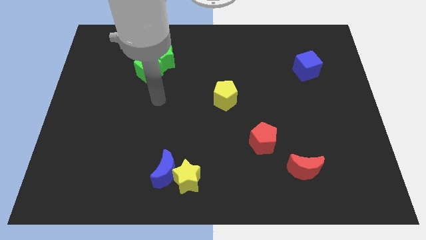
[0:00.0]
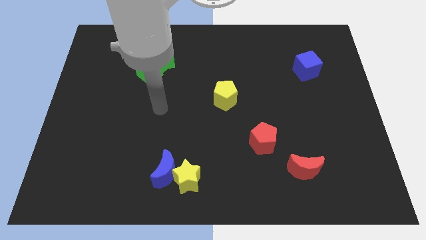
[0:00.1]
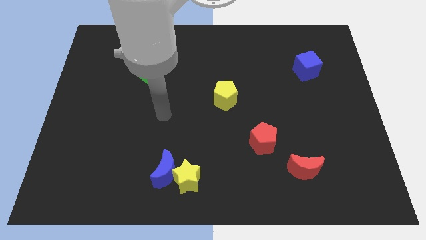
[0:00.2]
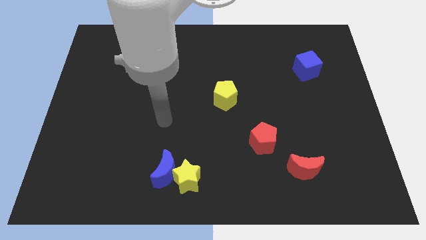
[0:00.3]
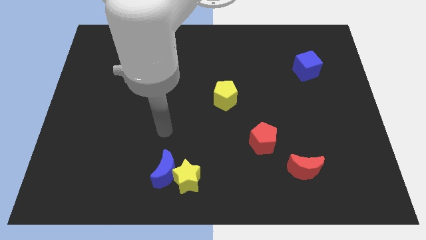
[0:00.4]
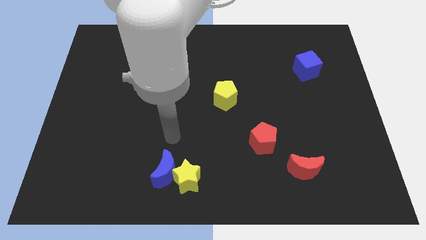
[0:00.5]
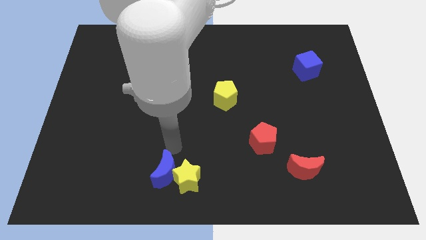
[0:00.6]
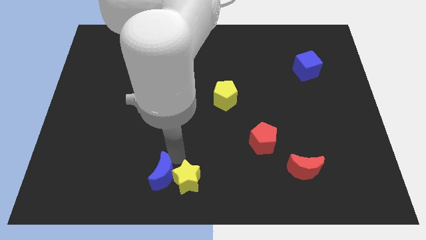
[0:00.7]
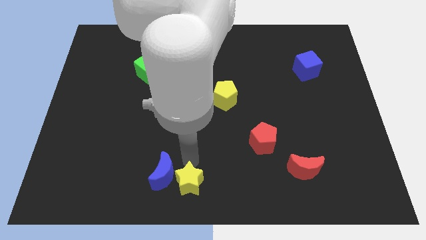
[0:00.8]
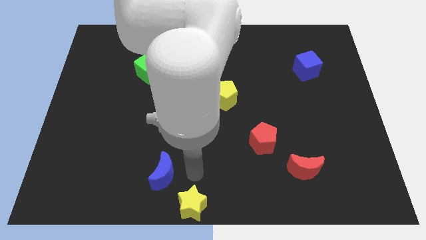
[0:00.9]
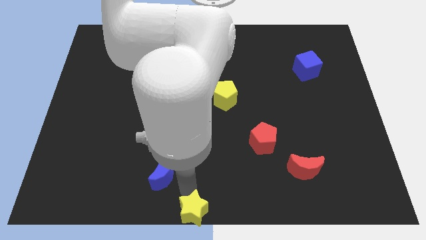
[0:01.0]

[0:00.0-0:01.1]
pull the blue moon apart from the yellow star

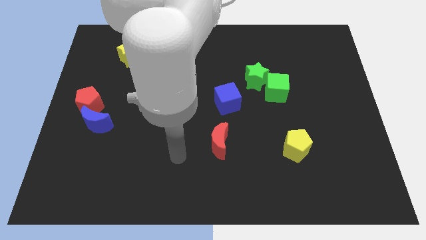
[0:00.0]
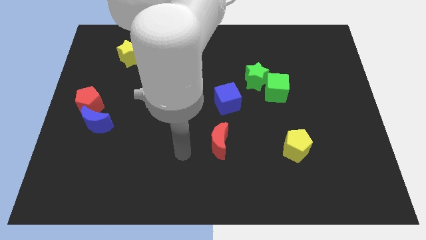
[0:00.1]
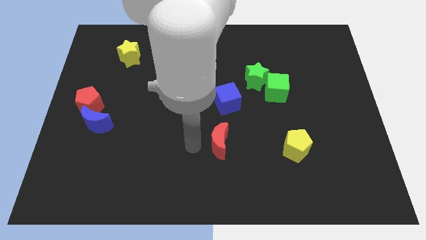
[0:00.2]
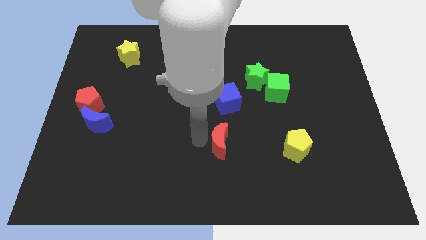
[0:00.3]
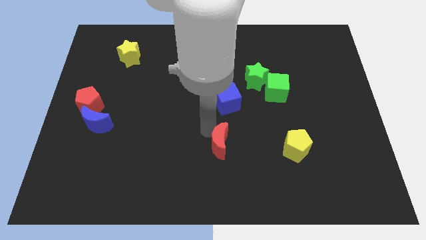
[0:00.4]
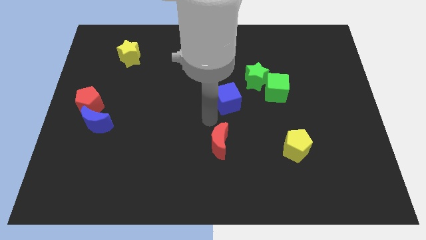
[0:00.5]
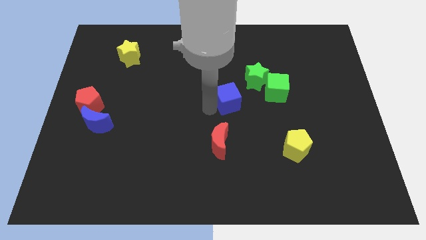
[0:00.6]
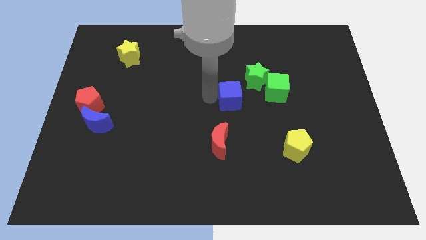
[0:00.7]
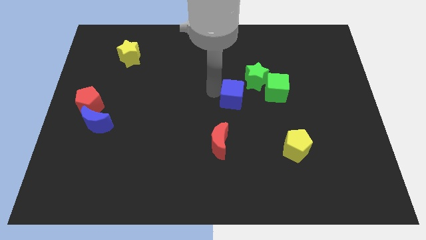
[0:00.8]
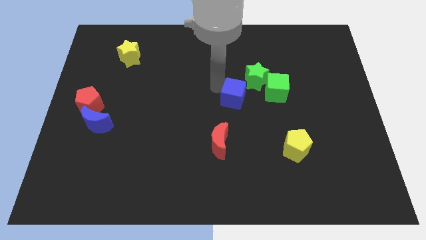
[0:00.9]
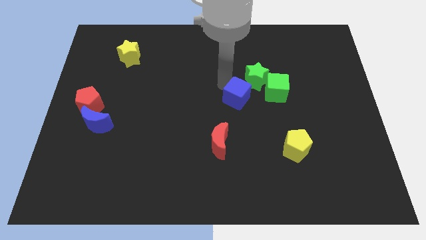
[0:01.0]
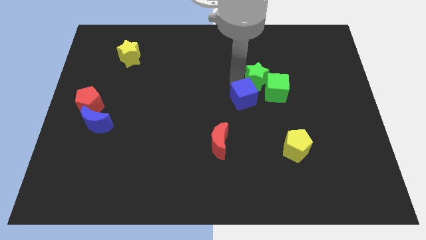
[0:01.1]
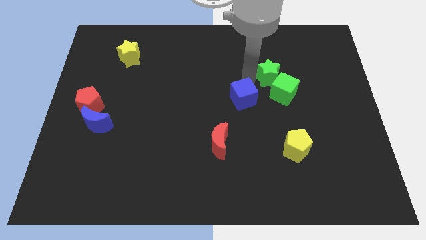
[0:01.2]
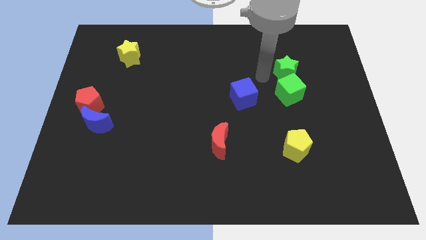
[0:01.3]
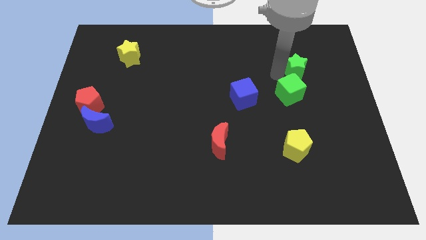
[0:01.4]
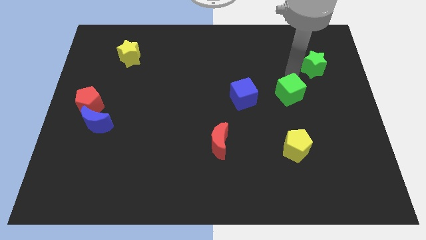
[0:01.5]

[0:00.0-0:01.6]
pull the green cube apart from the green star

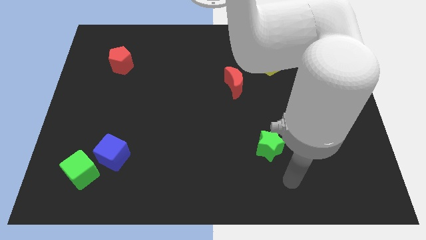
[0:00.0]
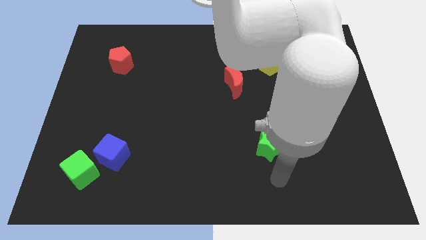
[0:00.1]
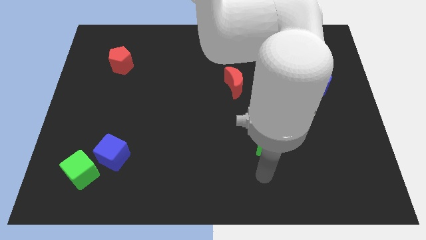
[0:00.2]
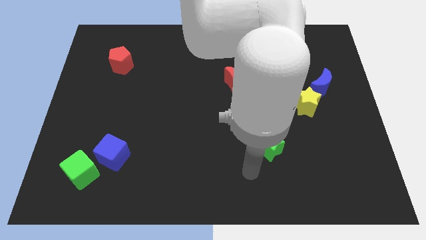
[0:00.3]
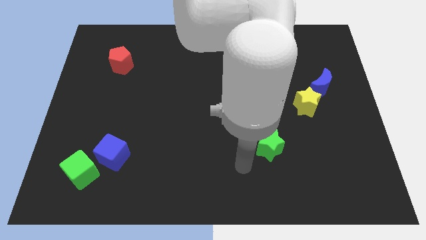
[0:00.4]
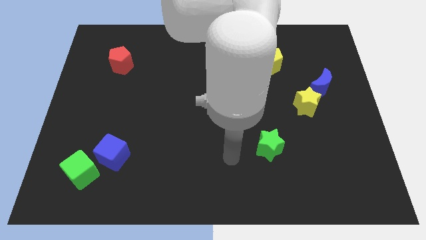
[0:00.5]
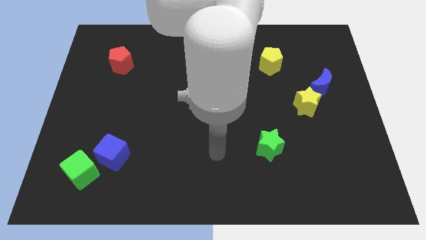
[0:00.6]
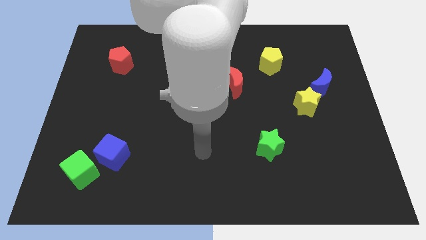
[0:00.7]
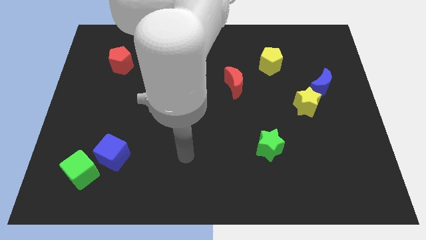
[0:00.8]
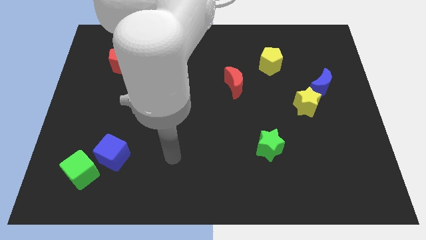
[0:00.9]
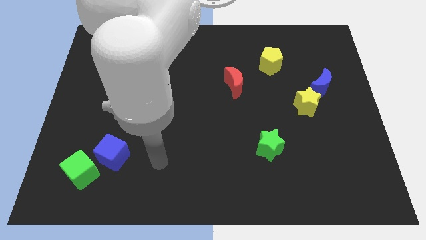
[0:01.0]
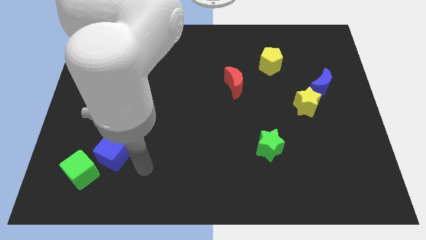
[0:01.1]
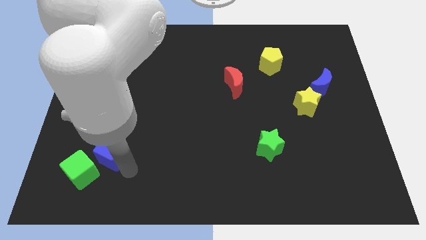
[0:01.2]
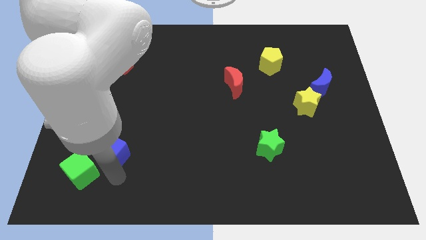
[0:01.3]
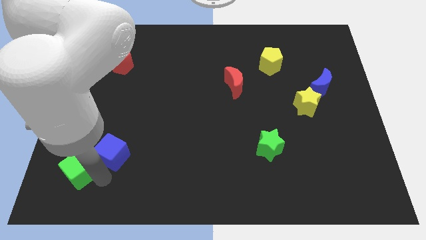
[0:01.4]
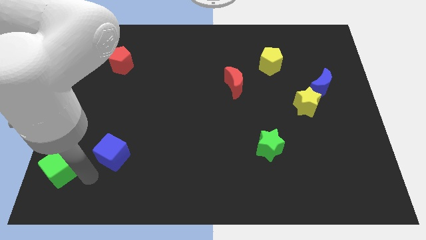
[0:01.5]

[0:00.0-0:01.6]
move the blue cube away from the green cube

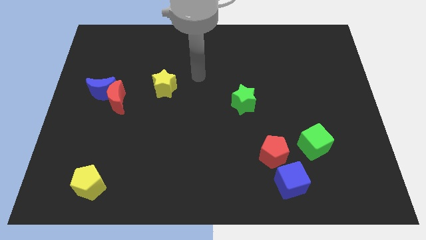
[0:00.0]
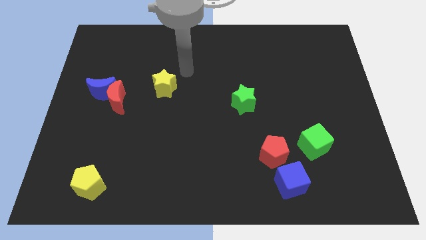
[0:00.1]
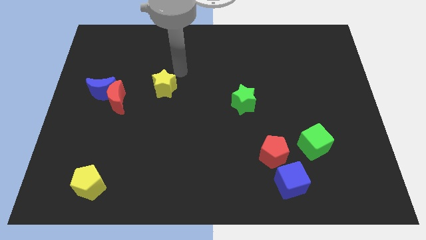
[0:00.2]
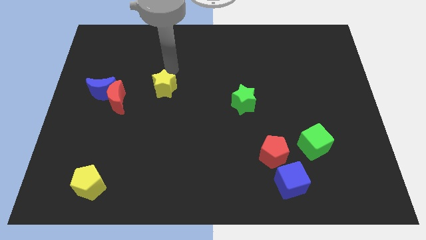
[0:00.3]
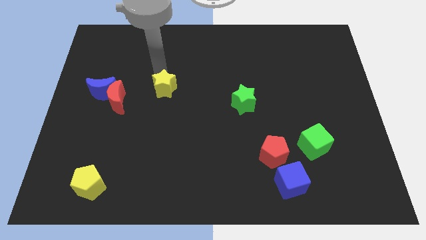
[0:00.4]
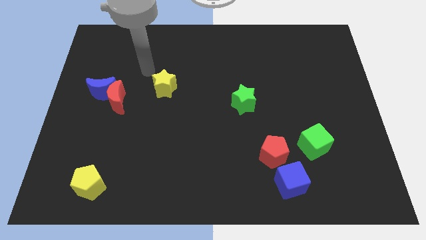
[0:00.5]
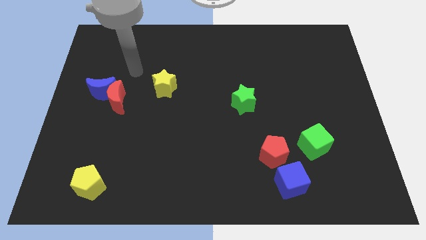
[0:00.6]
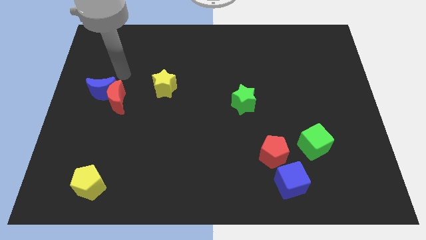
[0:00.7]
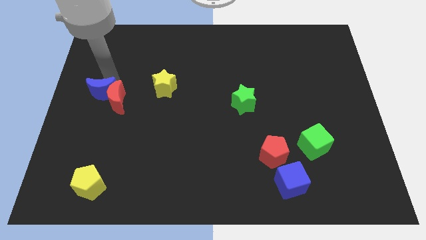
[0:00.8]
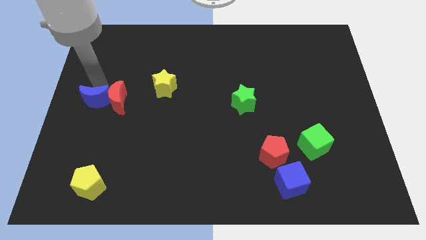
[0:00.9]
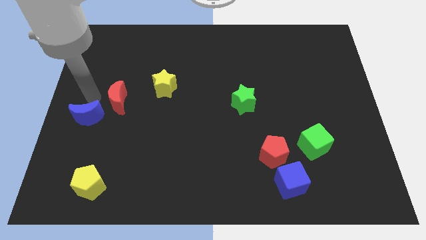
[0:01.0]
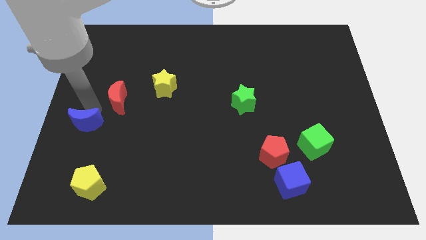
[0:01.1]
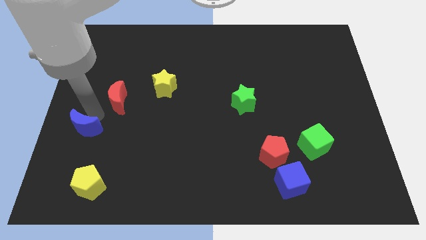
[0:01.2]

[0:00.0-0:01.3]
move the red moon away from the blue moon

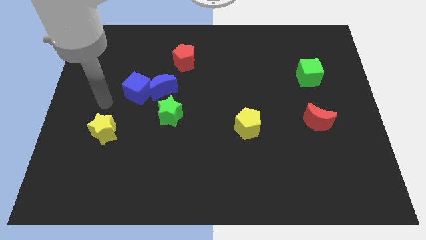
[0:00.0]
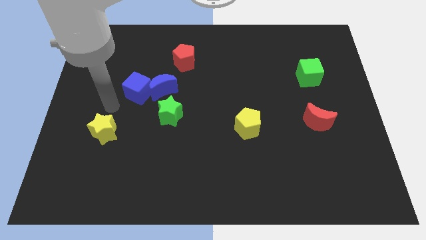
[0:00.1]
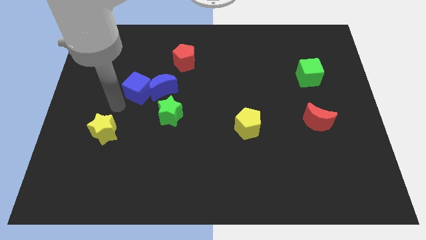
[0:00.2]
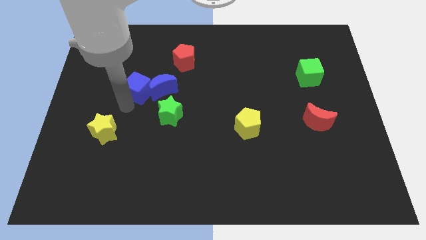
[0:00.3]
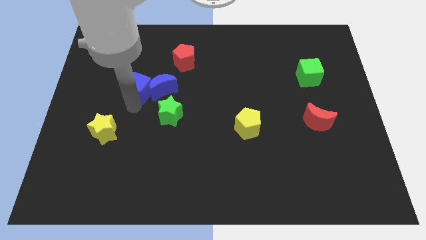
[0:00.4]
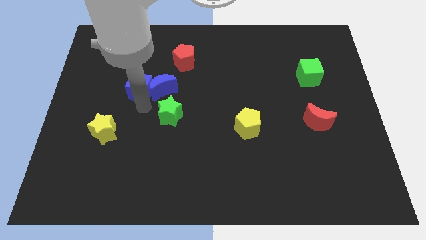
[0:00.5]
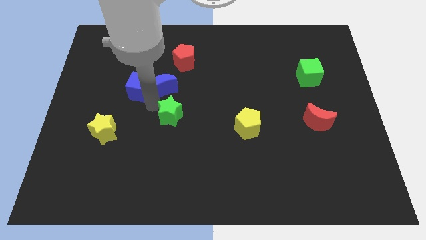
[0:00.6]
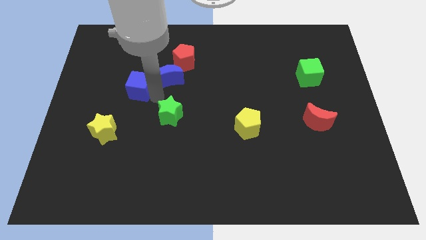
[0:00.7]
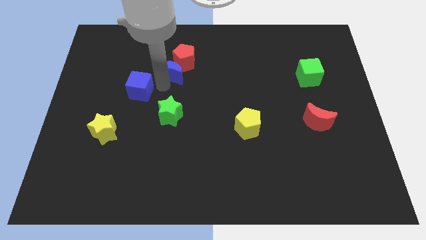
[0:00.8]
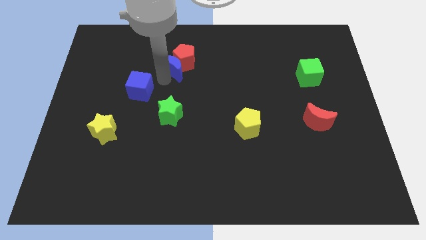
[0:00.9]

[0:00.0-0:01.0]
pull the blue cube apart from the blue moon

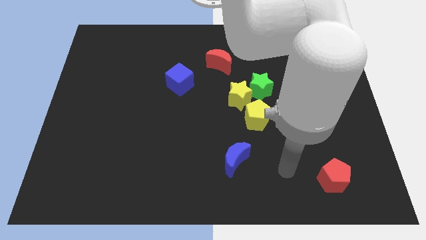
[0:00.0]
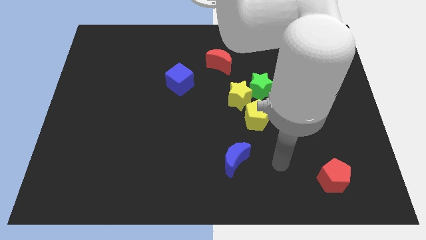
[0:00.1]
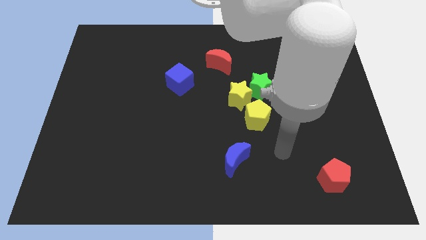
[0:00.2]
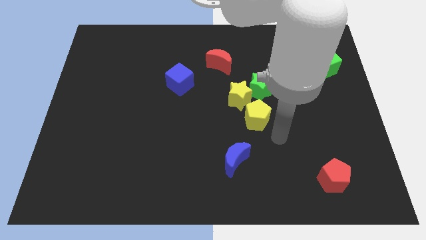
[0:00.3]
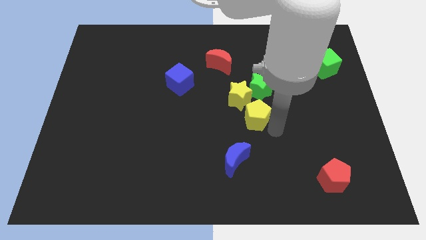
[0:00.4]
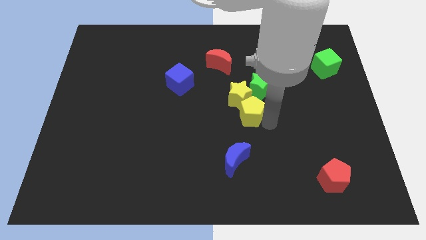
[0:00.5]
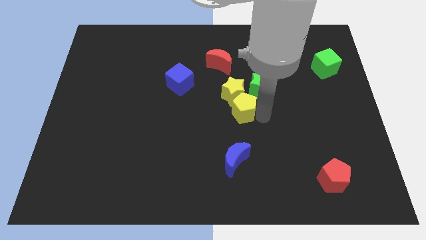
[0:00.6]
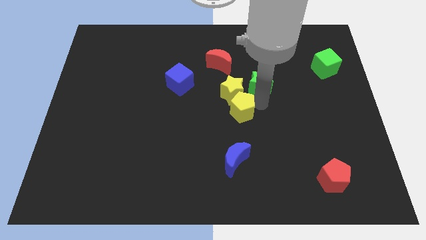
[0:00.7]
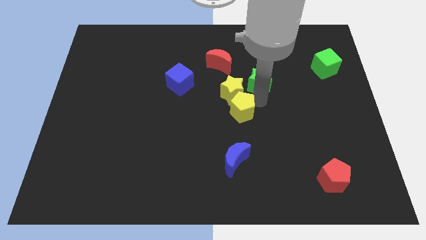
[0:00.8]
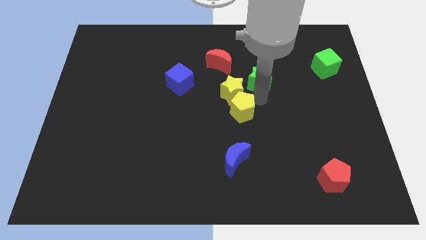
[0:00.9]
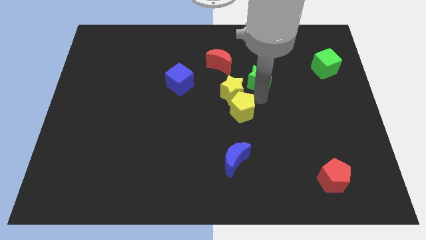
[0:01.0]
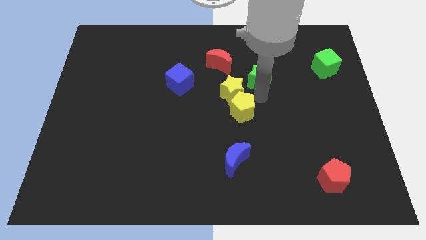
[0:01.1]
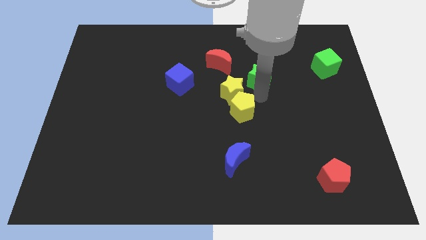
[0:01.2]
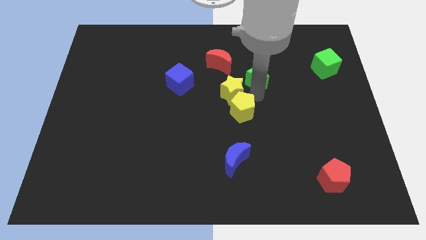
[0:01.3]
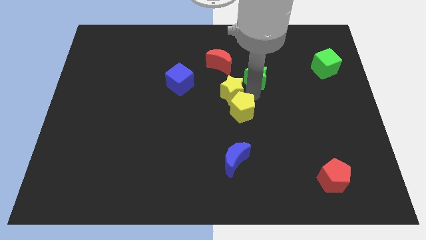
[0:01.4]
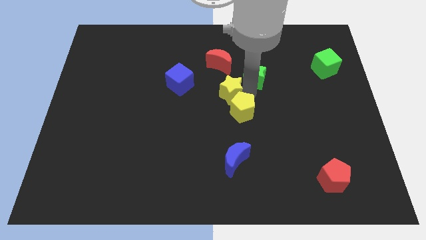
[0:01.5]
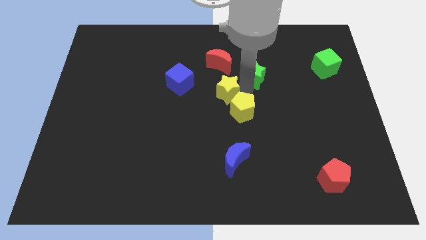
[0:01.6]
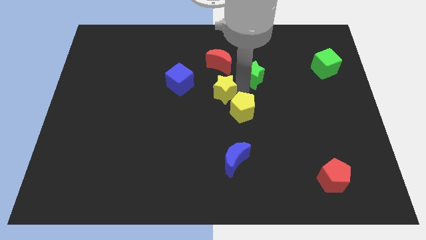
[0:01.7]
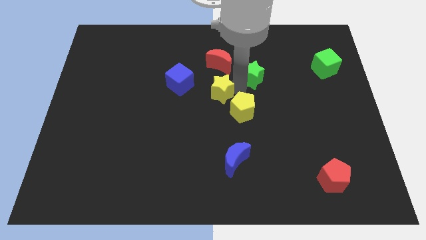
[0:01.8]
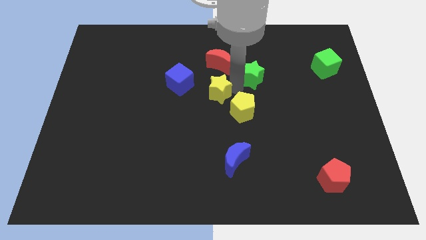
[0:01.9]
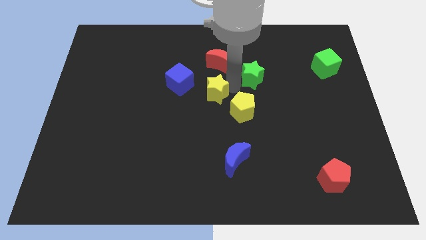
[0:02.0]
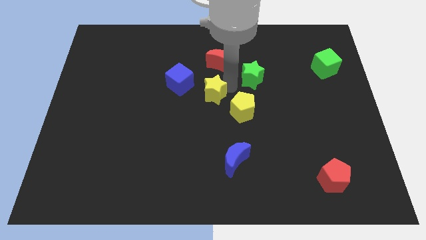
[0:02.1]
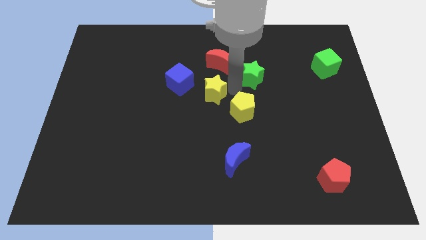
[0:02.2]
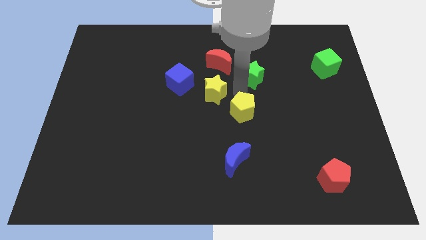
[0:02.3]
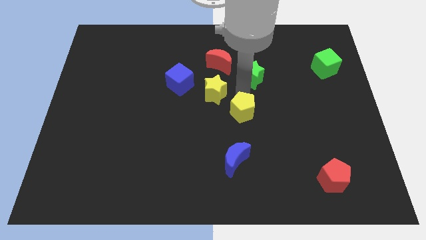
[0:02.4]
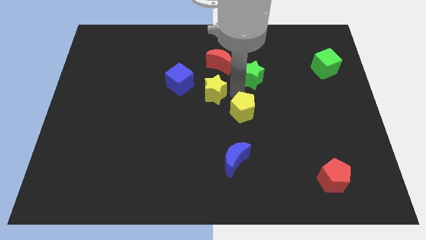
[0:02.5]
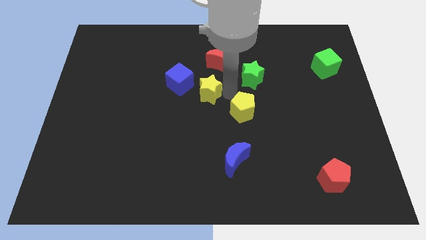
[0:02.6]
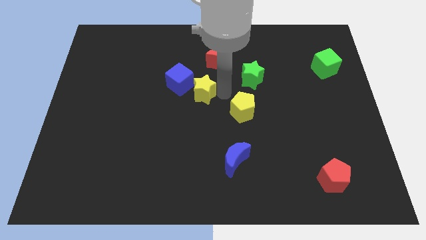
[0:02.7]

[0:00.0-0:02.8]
separate the yellow star from the green star and yellow pentagon
